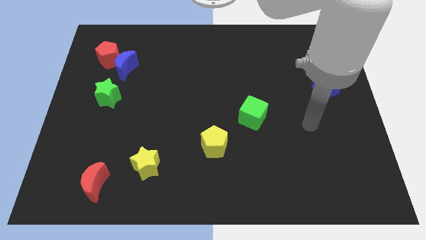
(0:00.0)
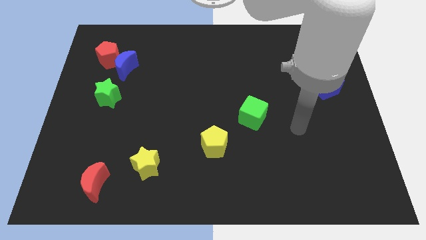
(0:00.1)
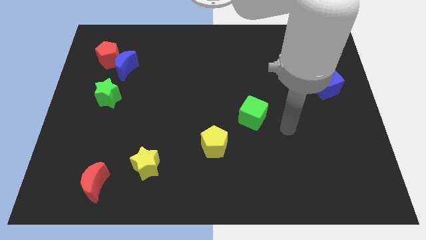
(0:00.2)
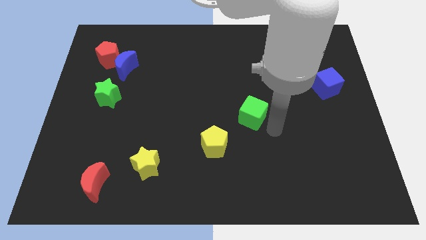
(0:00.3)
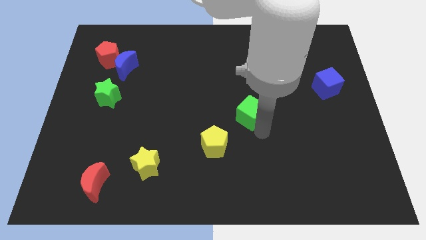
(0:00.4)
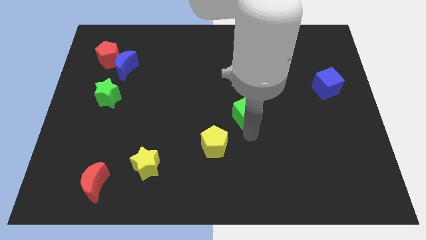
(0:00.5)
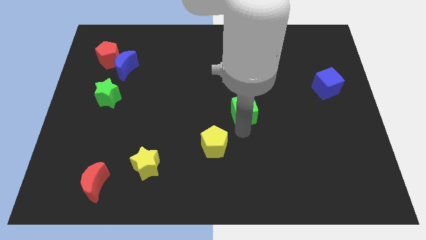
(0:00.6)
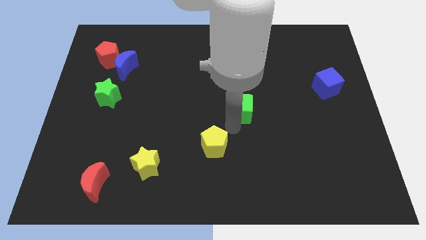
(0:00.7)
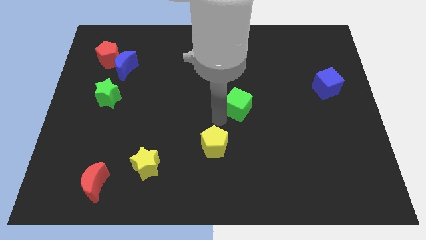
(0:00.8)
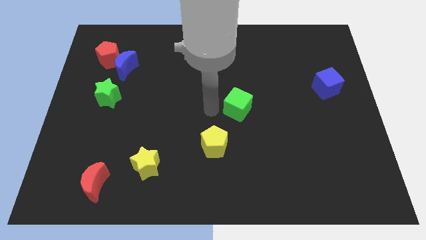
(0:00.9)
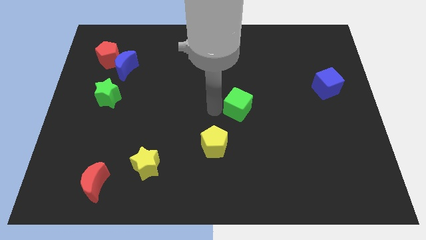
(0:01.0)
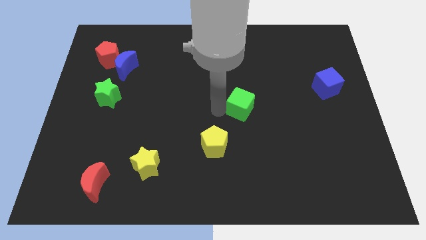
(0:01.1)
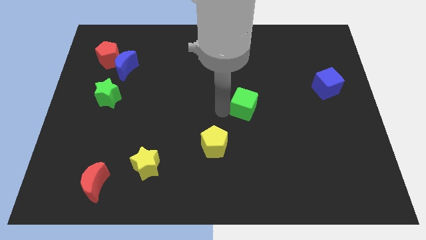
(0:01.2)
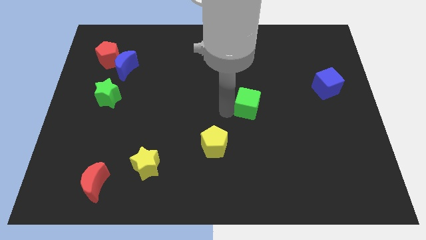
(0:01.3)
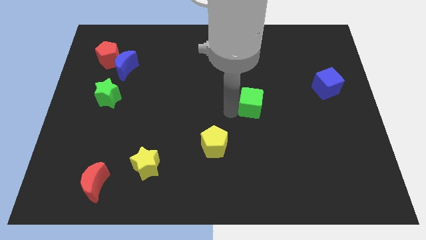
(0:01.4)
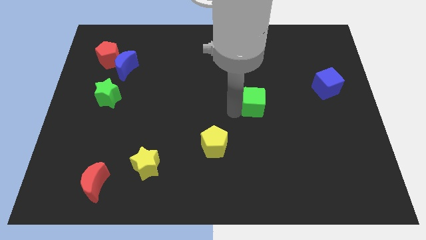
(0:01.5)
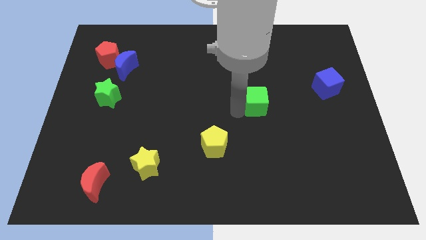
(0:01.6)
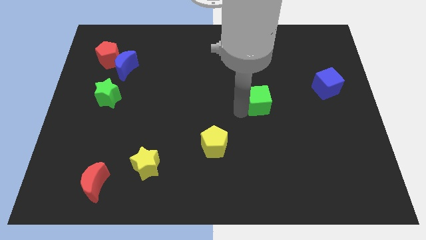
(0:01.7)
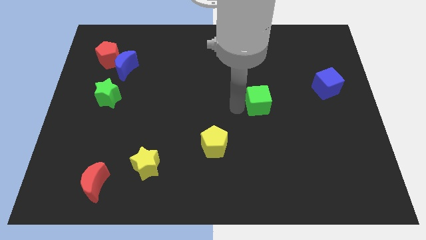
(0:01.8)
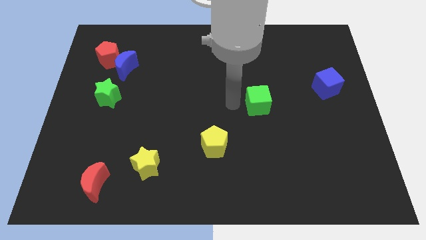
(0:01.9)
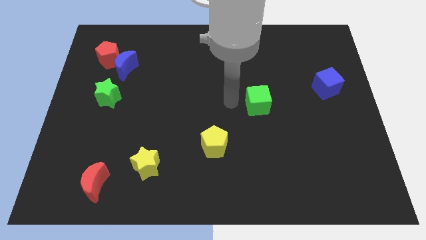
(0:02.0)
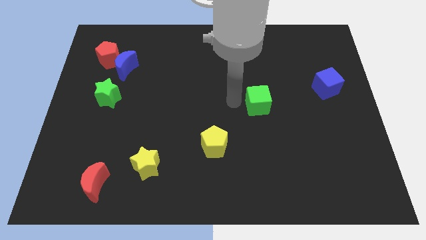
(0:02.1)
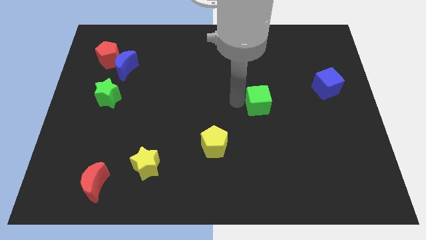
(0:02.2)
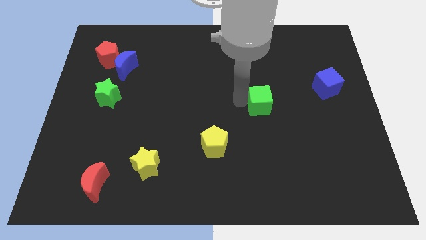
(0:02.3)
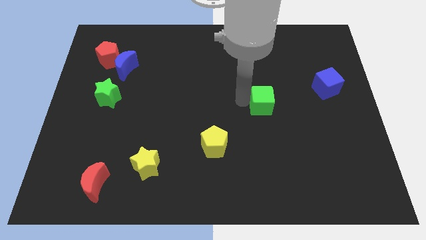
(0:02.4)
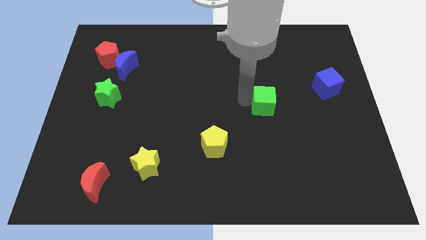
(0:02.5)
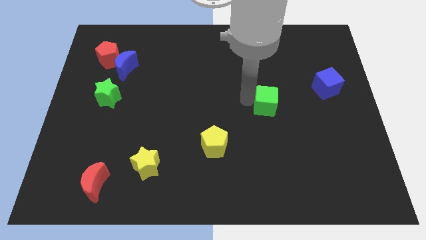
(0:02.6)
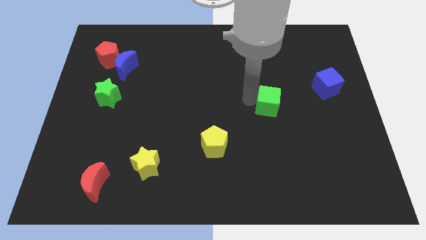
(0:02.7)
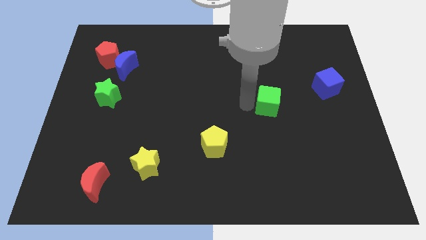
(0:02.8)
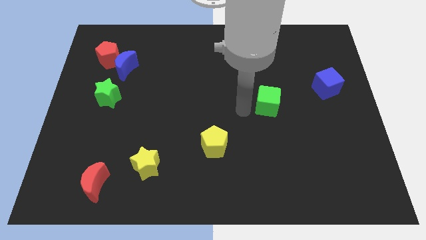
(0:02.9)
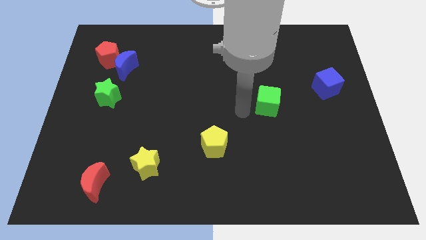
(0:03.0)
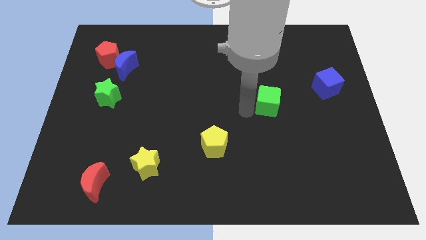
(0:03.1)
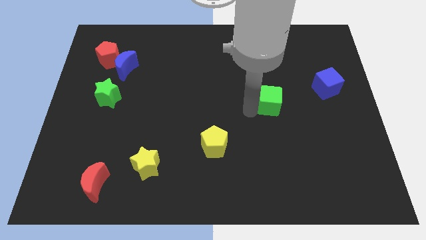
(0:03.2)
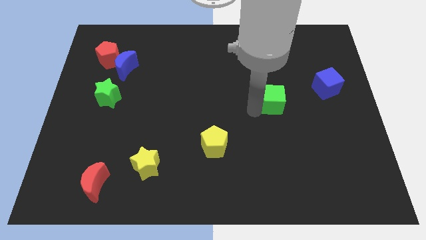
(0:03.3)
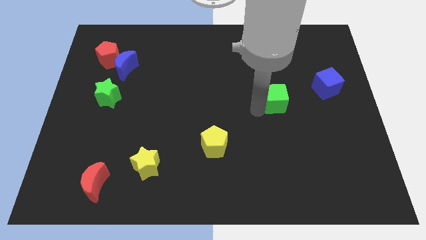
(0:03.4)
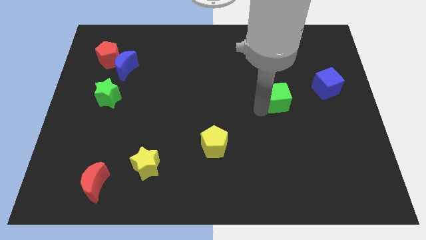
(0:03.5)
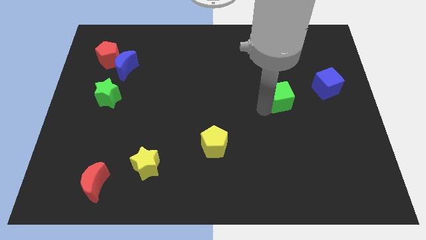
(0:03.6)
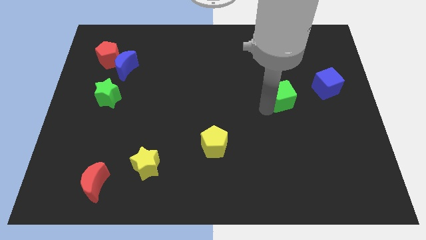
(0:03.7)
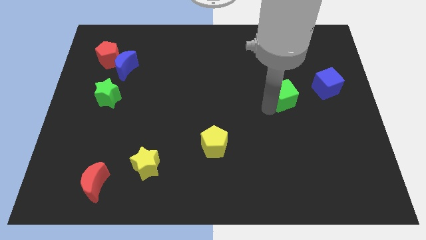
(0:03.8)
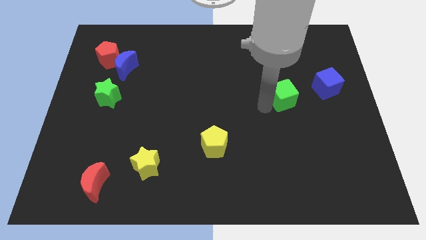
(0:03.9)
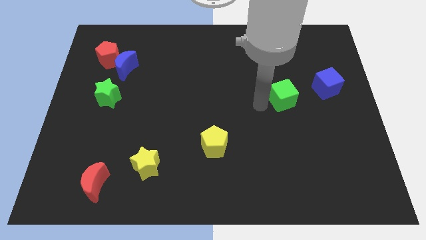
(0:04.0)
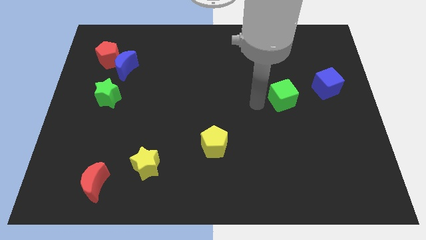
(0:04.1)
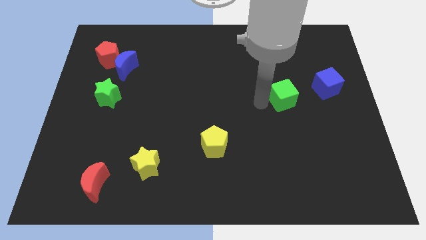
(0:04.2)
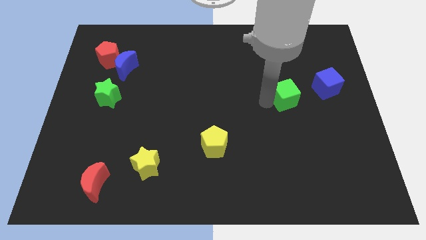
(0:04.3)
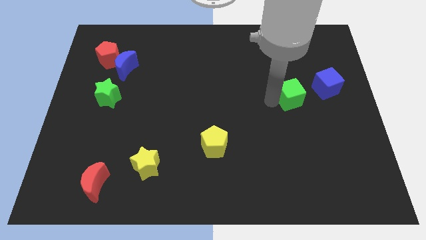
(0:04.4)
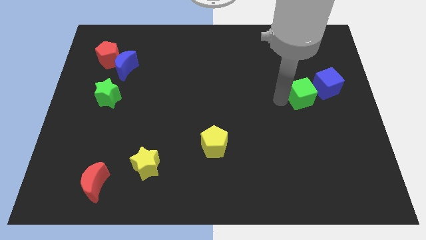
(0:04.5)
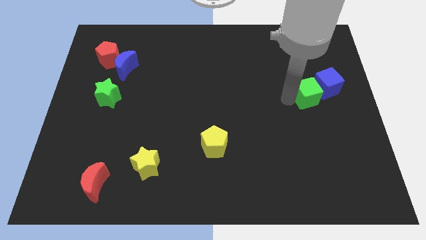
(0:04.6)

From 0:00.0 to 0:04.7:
put the green cube to the blue cube

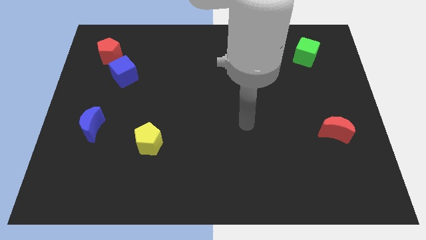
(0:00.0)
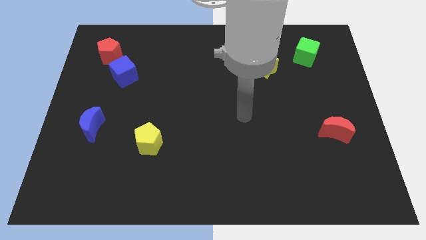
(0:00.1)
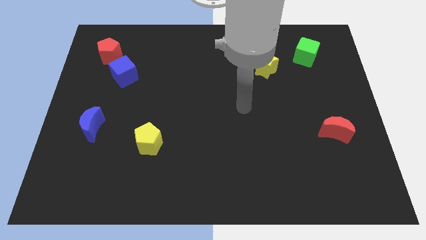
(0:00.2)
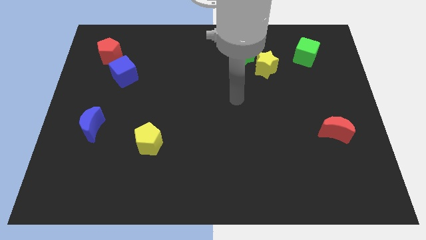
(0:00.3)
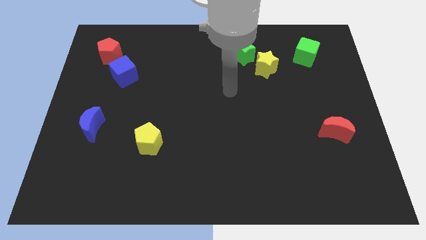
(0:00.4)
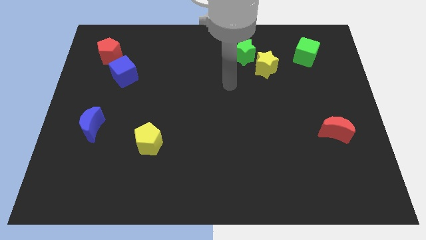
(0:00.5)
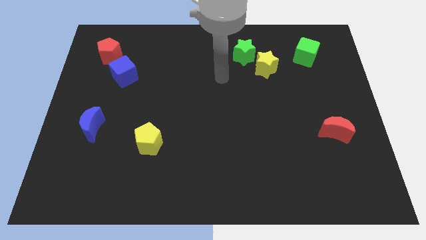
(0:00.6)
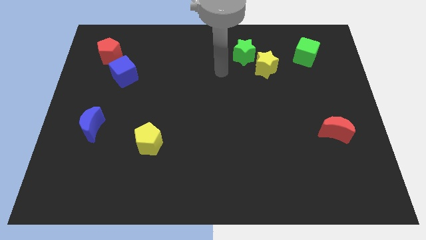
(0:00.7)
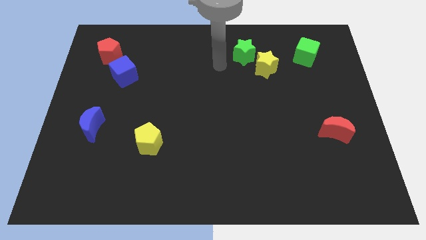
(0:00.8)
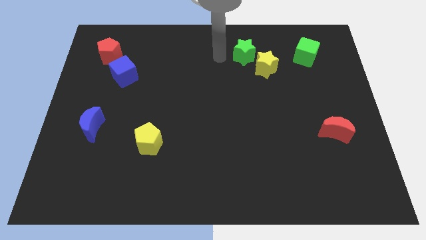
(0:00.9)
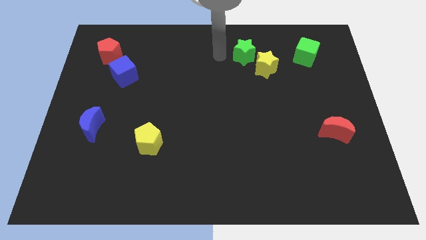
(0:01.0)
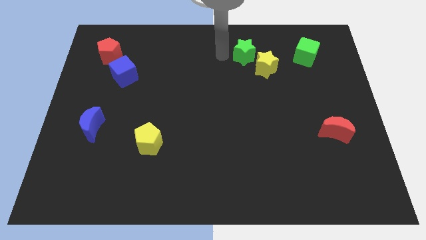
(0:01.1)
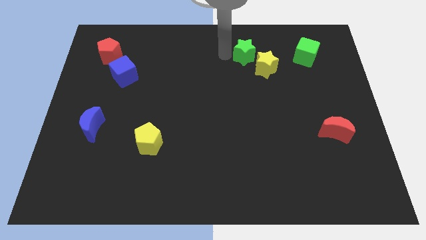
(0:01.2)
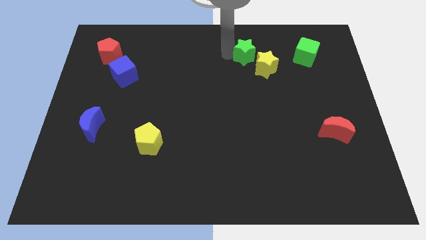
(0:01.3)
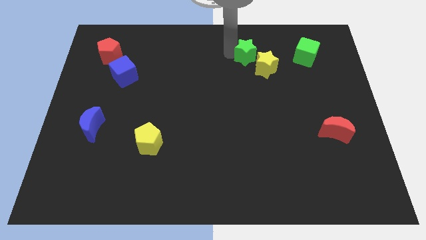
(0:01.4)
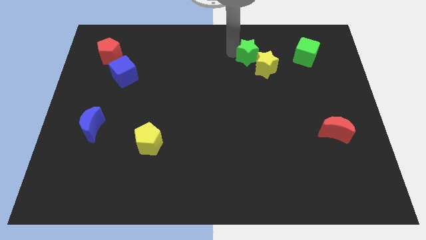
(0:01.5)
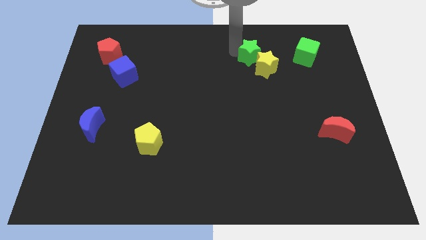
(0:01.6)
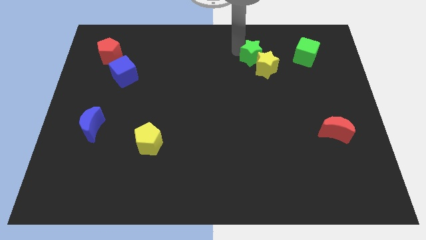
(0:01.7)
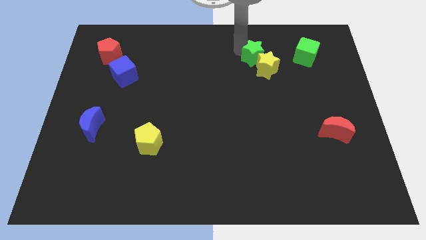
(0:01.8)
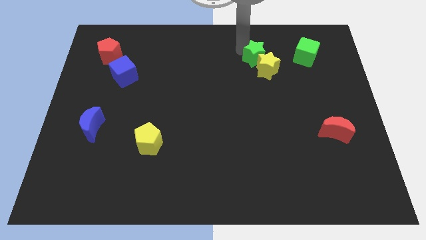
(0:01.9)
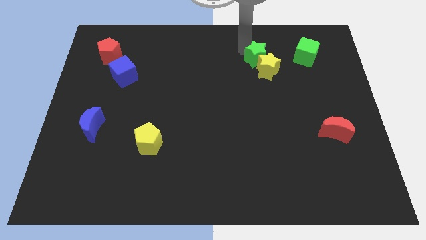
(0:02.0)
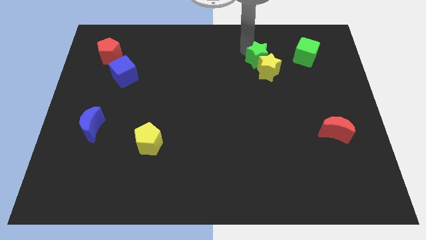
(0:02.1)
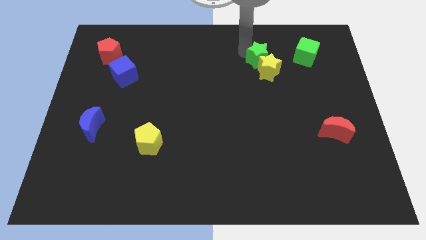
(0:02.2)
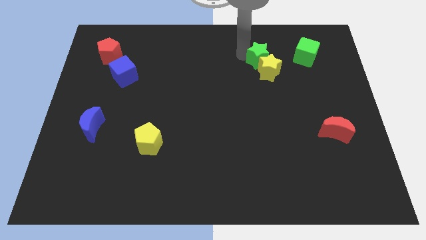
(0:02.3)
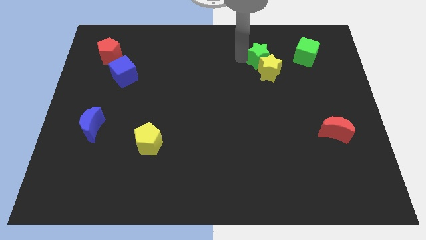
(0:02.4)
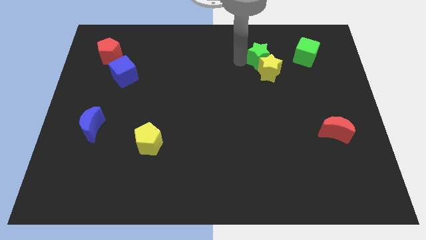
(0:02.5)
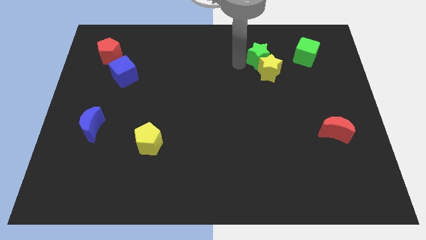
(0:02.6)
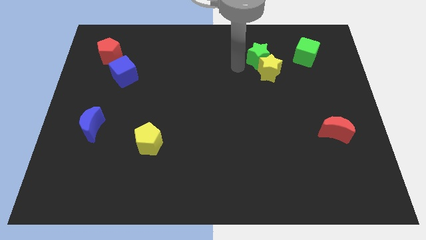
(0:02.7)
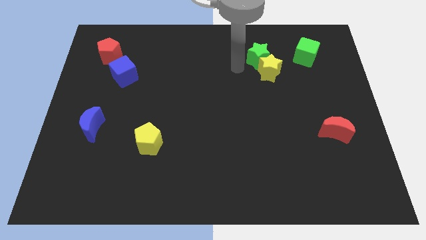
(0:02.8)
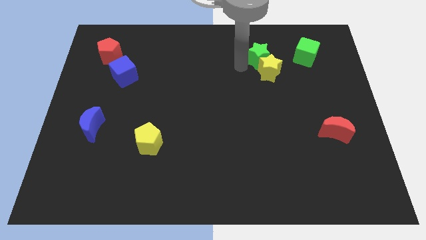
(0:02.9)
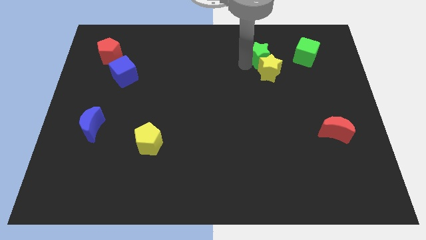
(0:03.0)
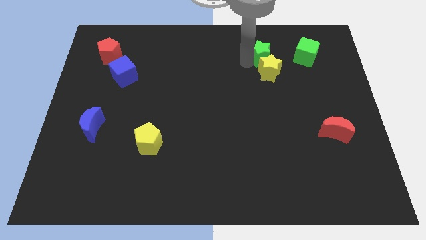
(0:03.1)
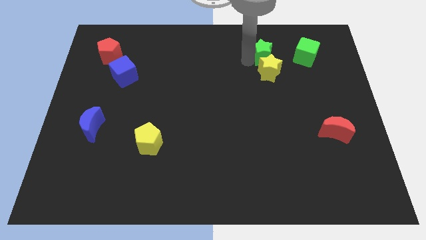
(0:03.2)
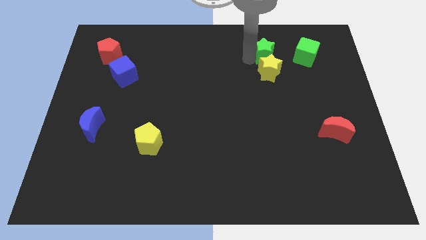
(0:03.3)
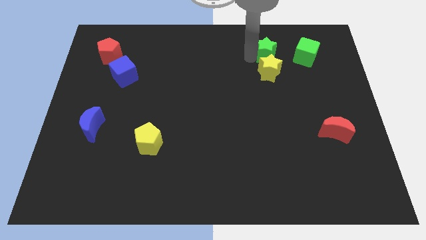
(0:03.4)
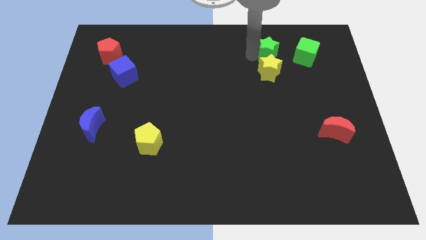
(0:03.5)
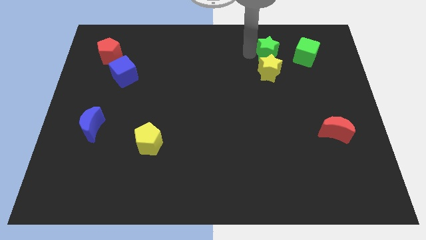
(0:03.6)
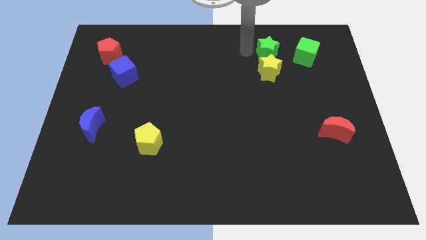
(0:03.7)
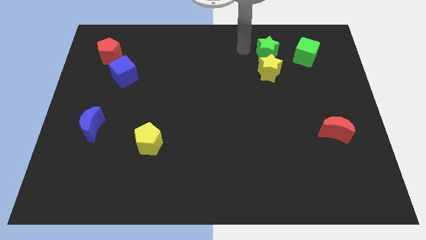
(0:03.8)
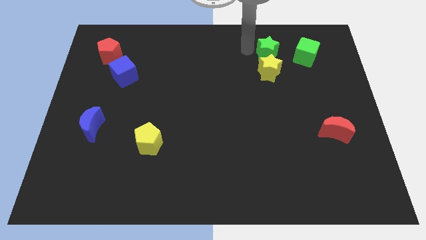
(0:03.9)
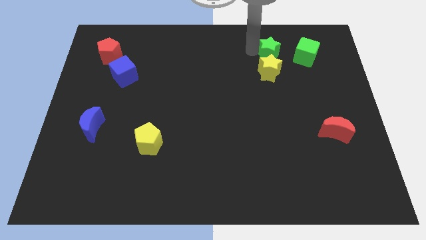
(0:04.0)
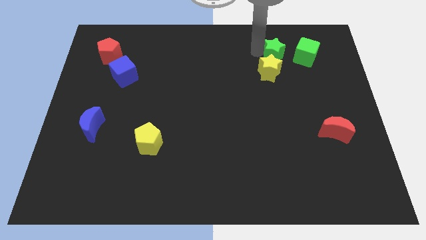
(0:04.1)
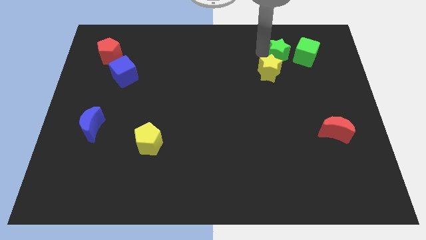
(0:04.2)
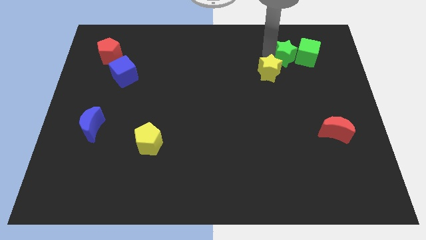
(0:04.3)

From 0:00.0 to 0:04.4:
slide the green star close to the green cube
